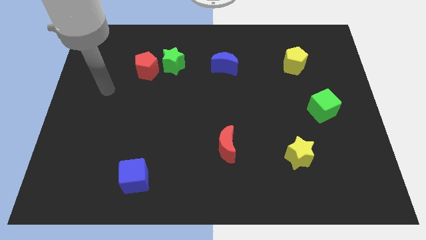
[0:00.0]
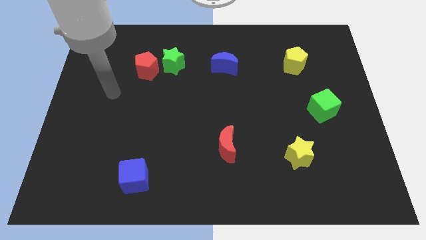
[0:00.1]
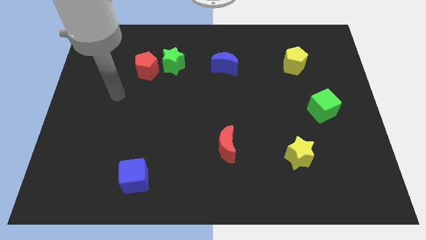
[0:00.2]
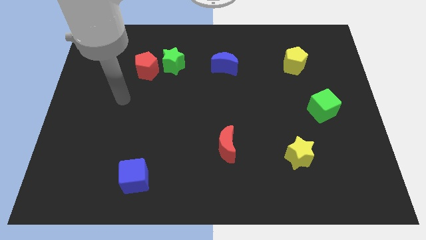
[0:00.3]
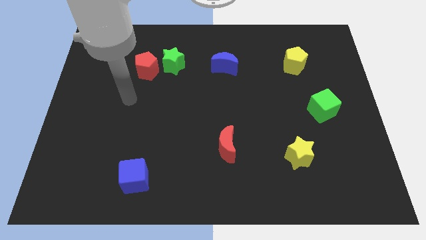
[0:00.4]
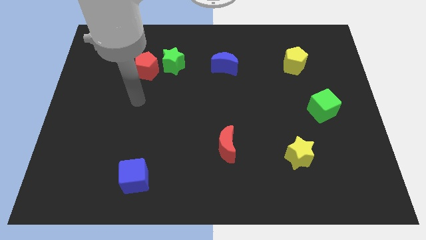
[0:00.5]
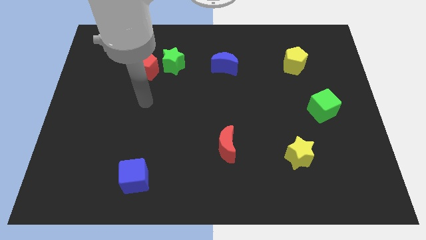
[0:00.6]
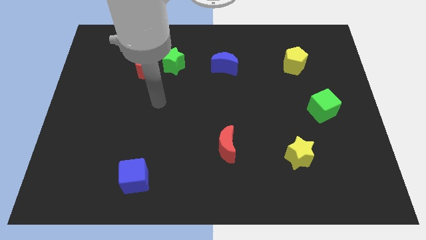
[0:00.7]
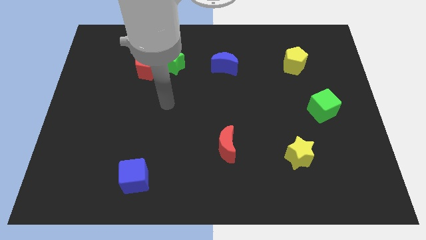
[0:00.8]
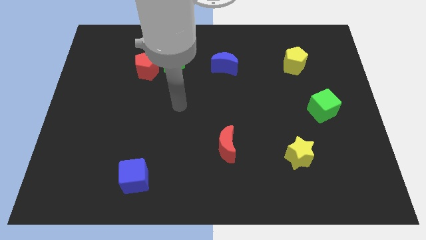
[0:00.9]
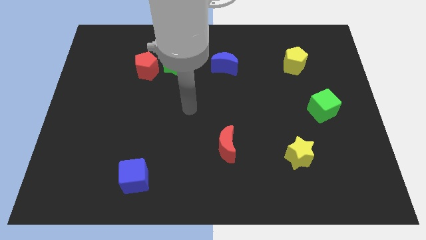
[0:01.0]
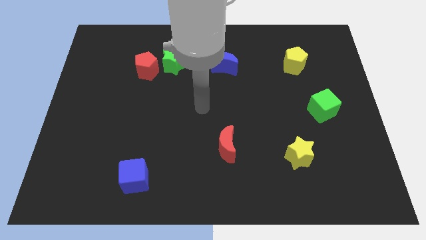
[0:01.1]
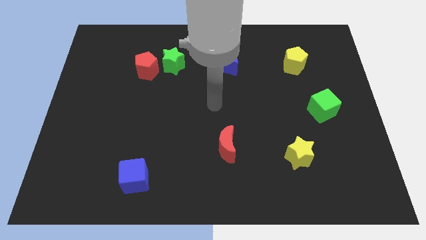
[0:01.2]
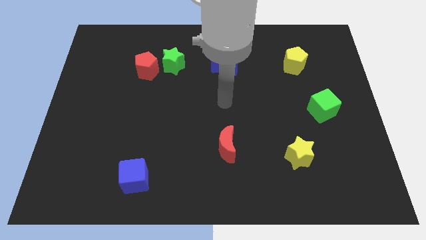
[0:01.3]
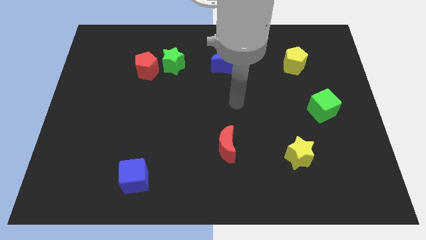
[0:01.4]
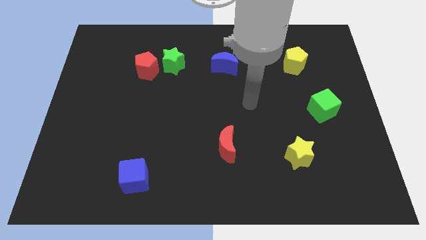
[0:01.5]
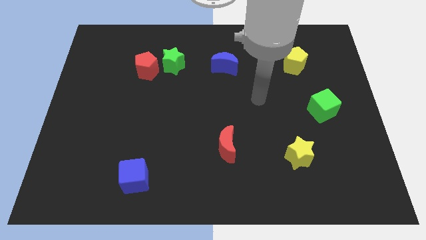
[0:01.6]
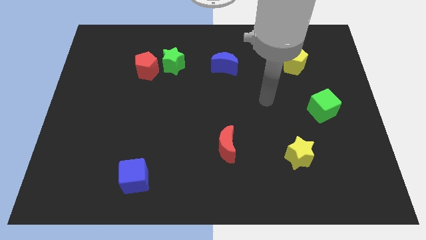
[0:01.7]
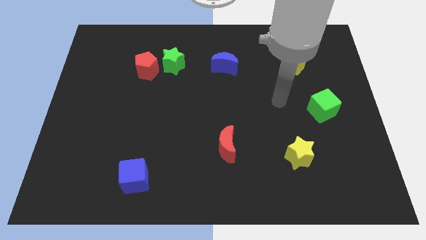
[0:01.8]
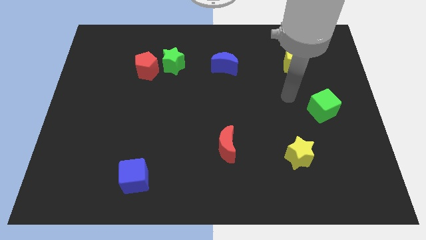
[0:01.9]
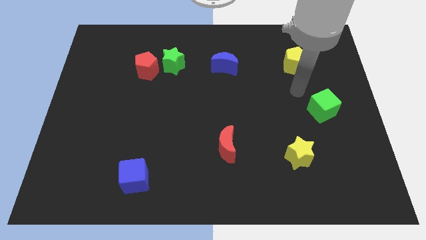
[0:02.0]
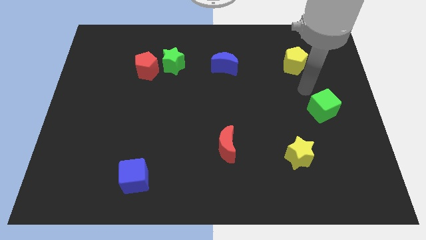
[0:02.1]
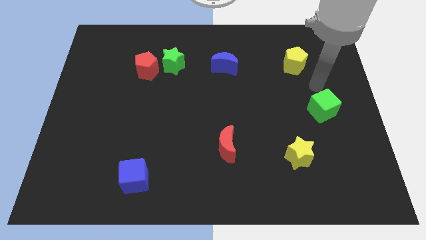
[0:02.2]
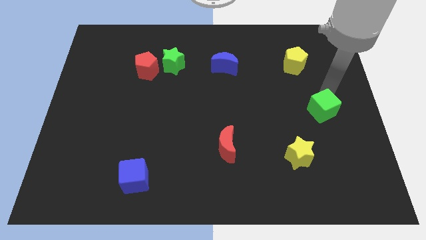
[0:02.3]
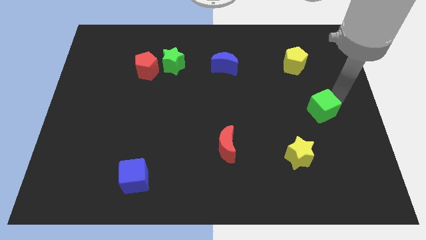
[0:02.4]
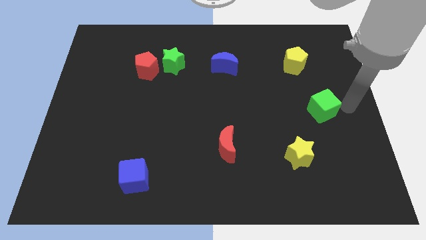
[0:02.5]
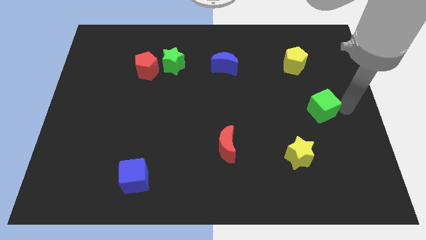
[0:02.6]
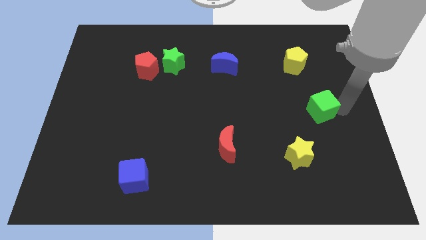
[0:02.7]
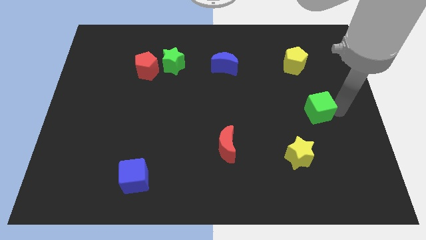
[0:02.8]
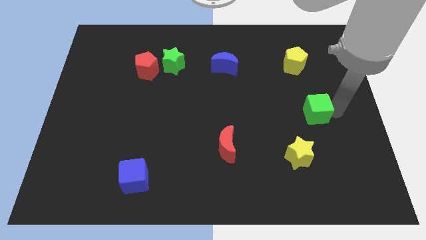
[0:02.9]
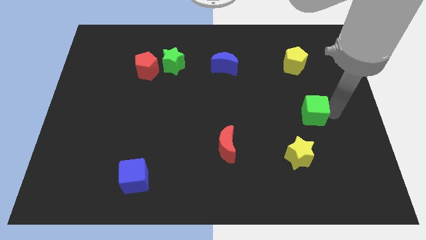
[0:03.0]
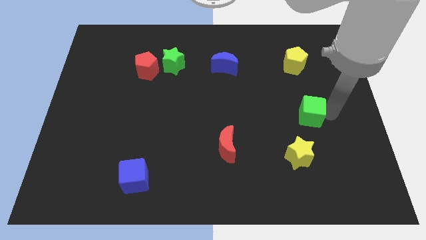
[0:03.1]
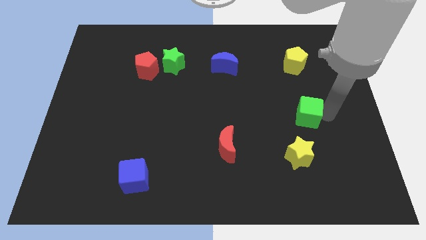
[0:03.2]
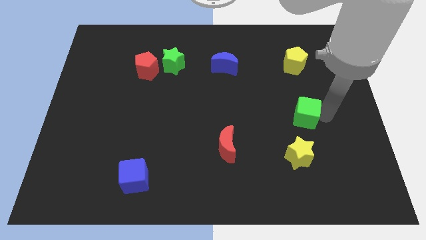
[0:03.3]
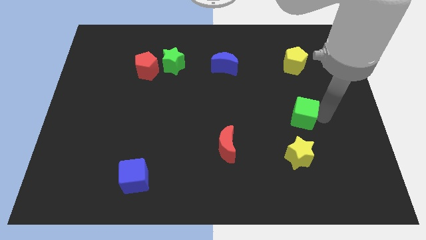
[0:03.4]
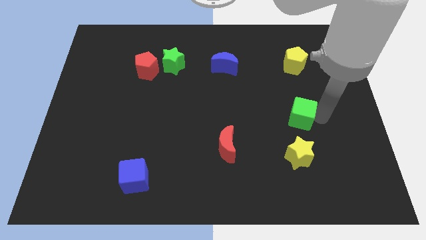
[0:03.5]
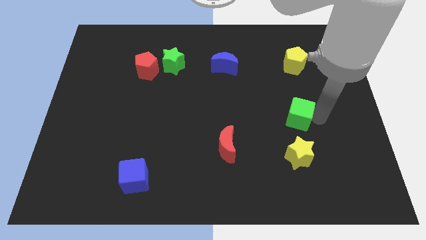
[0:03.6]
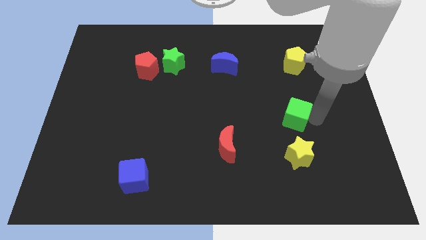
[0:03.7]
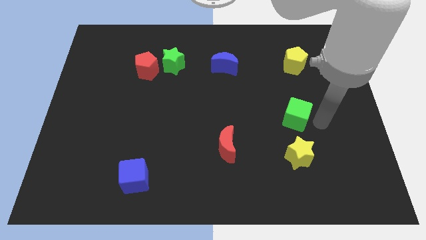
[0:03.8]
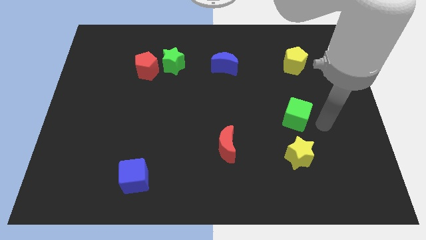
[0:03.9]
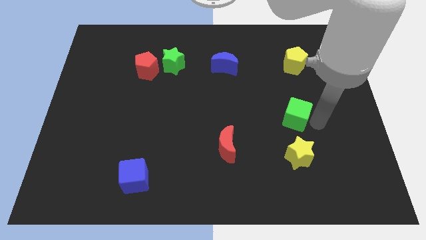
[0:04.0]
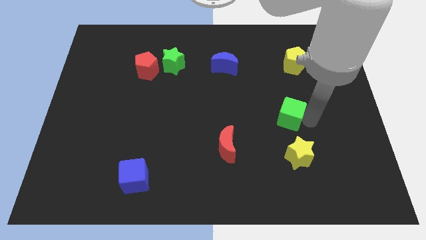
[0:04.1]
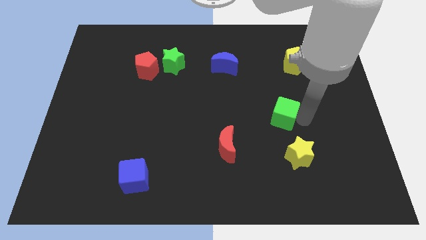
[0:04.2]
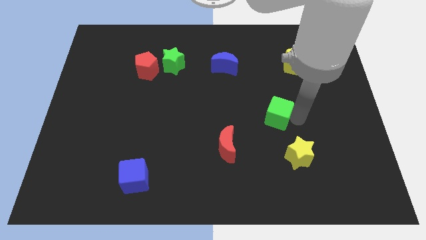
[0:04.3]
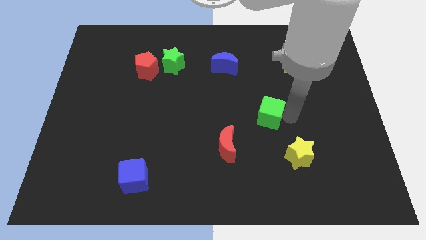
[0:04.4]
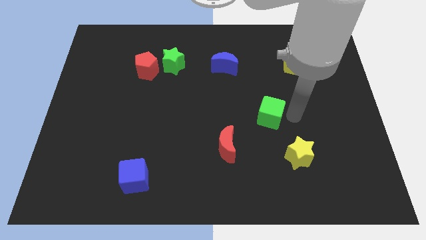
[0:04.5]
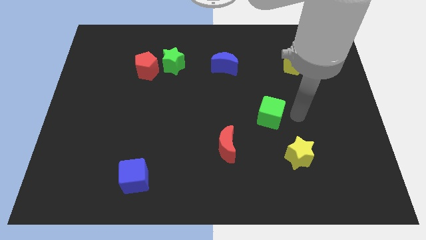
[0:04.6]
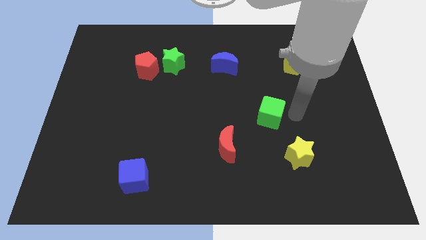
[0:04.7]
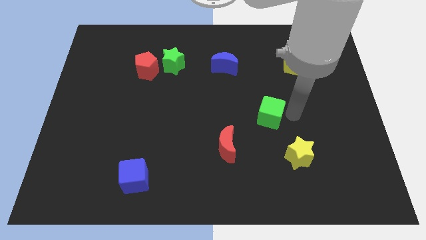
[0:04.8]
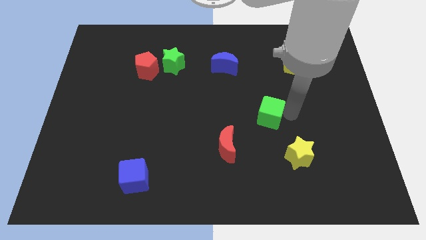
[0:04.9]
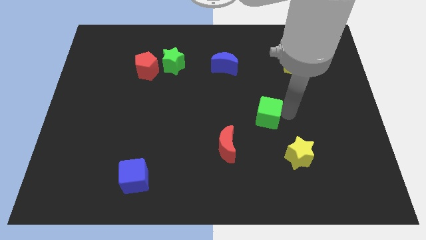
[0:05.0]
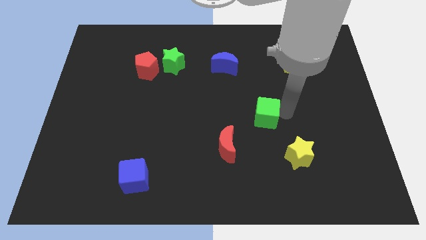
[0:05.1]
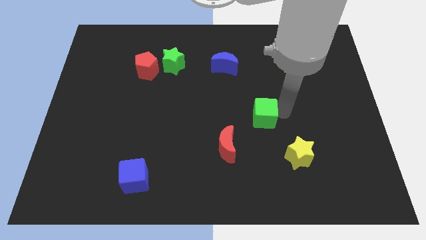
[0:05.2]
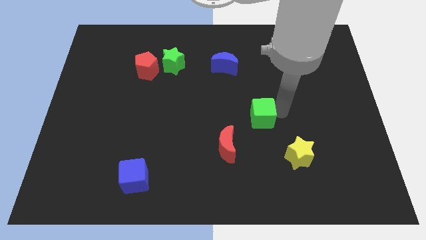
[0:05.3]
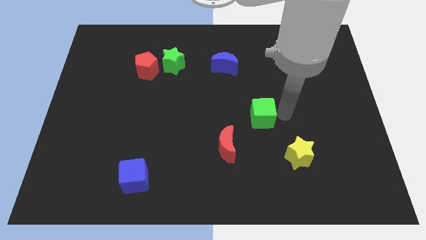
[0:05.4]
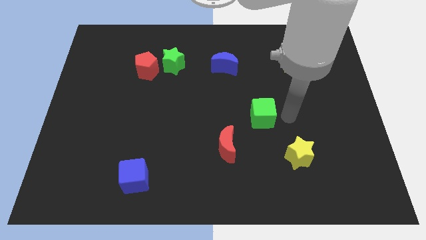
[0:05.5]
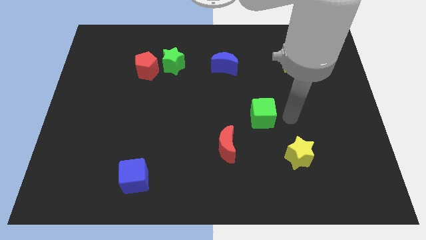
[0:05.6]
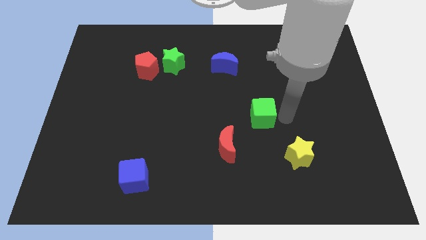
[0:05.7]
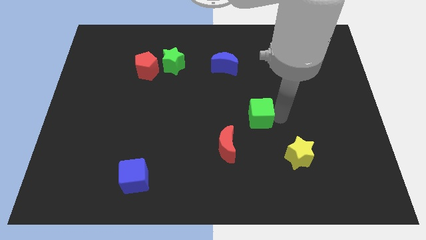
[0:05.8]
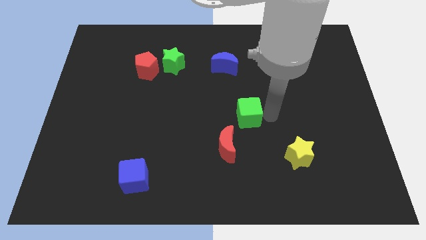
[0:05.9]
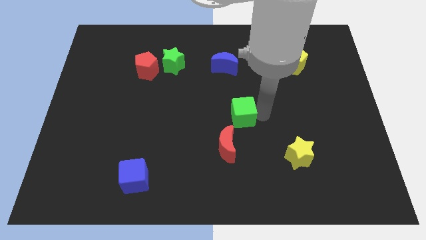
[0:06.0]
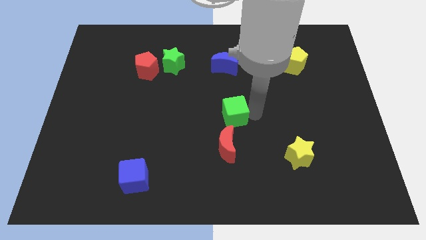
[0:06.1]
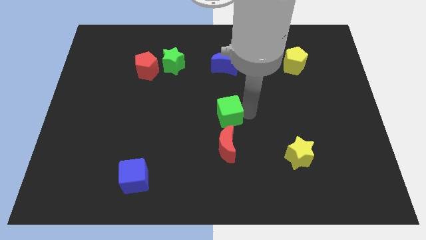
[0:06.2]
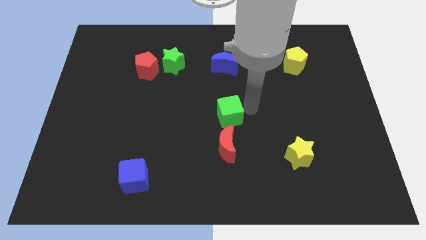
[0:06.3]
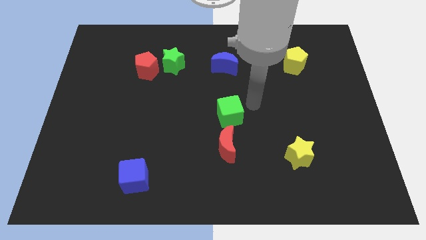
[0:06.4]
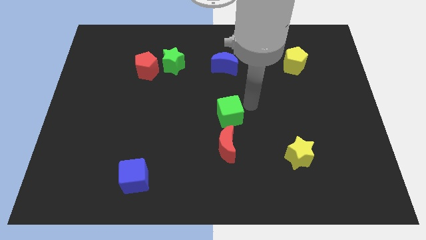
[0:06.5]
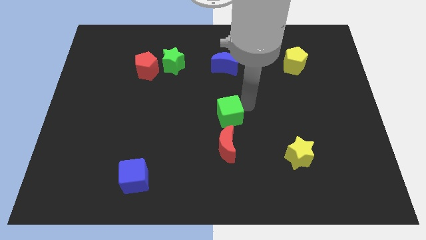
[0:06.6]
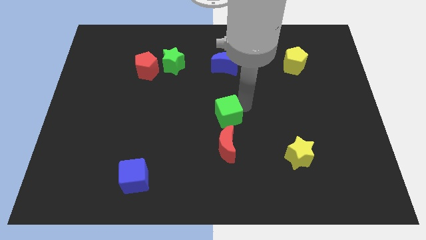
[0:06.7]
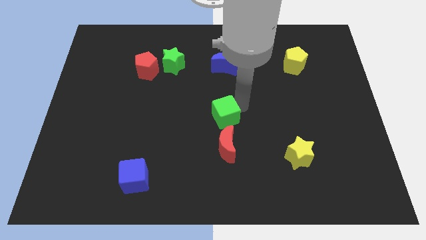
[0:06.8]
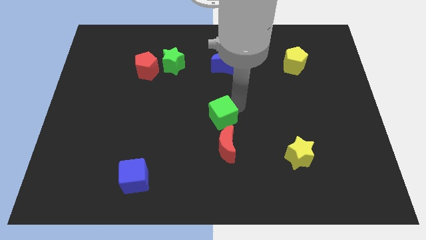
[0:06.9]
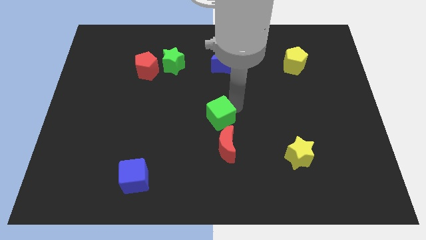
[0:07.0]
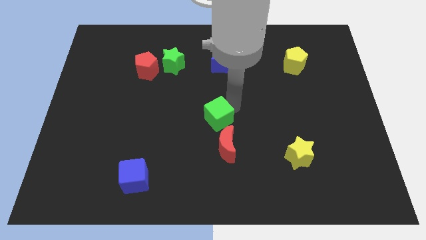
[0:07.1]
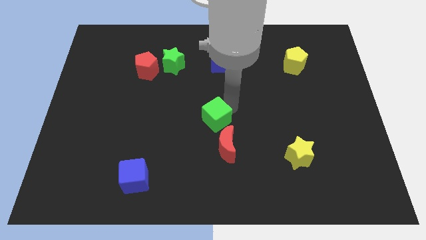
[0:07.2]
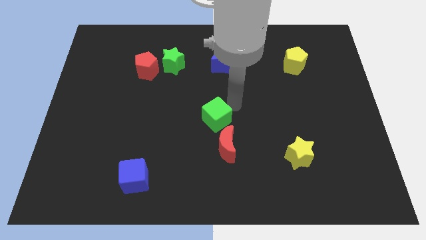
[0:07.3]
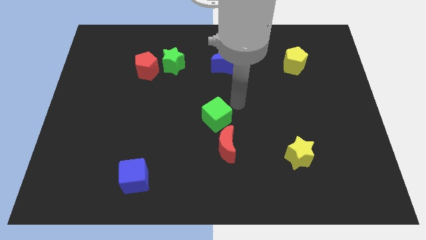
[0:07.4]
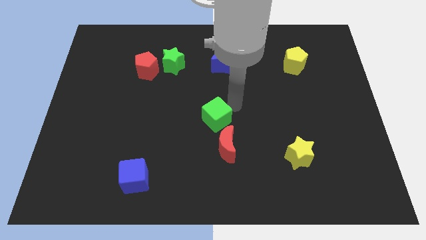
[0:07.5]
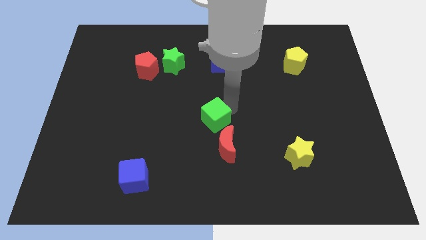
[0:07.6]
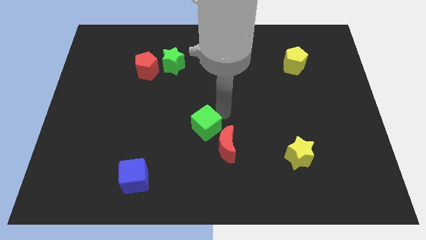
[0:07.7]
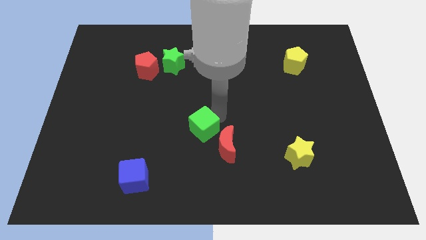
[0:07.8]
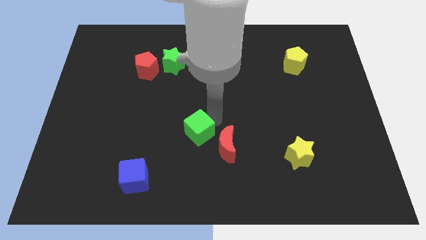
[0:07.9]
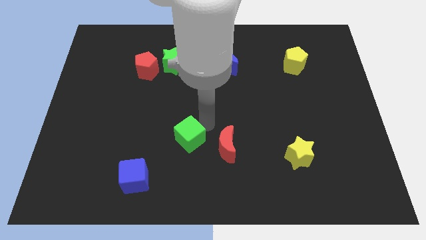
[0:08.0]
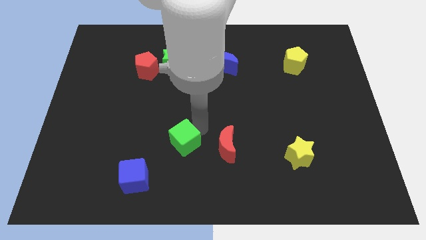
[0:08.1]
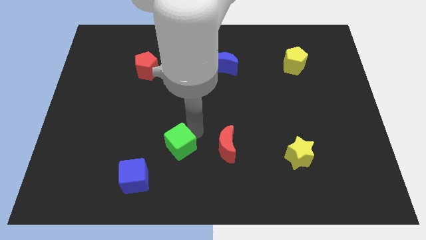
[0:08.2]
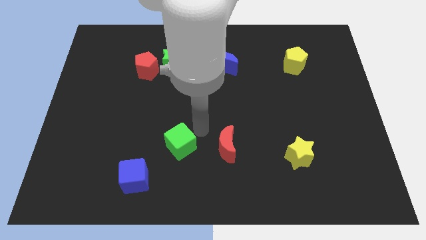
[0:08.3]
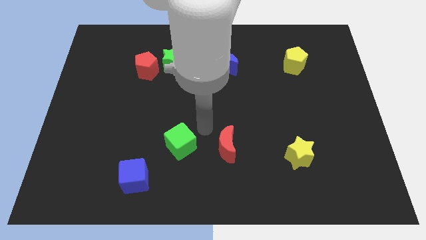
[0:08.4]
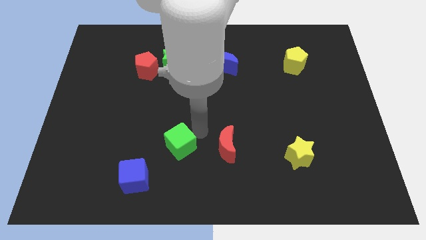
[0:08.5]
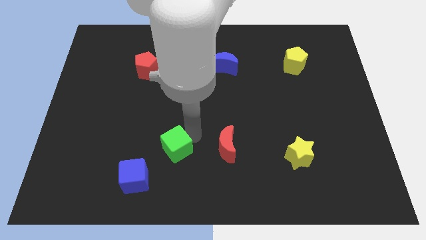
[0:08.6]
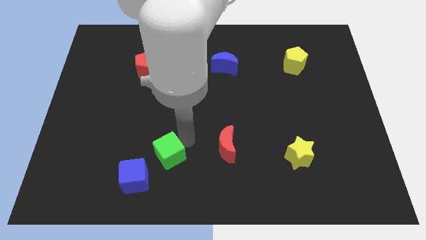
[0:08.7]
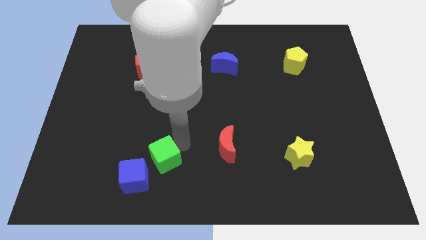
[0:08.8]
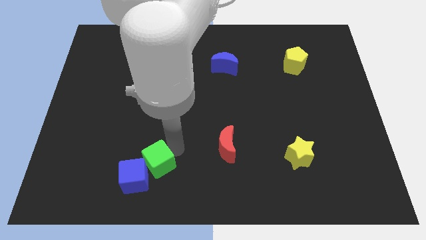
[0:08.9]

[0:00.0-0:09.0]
slide the green cube towards the blue cube
